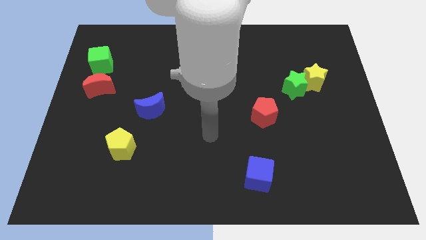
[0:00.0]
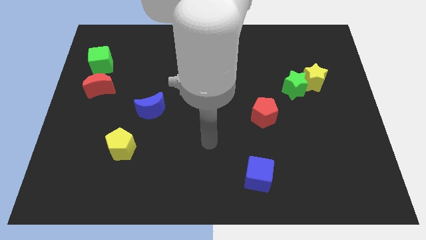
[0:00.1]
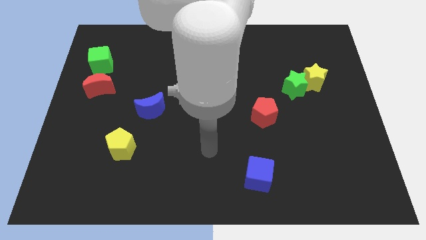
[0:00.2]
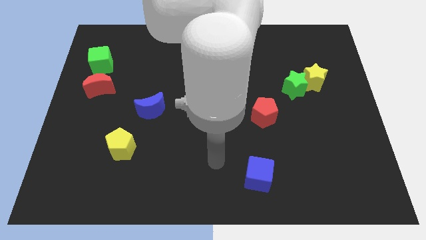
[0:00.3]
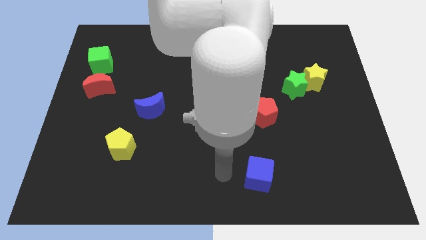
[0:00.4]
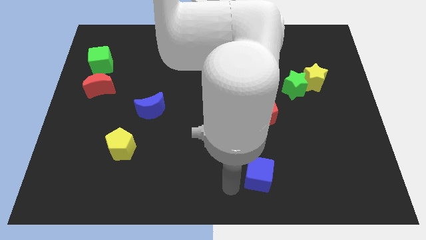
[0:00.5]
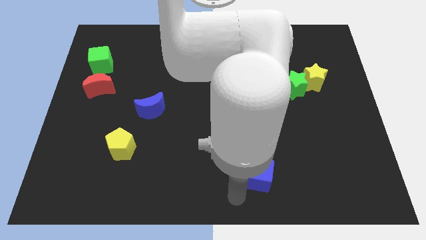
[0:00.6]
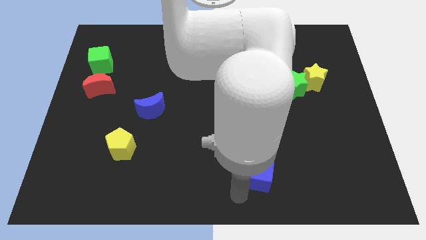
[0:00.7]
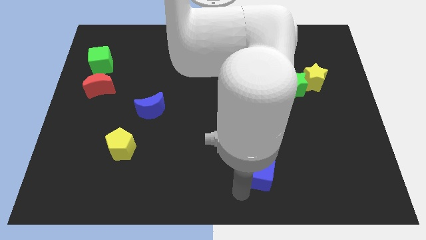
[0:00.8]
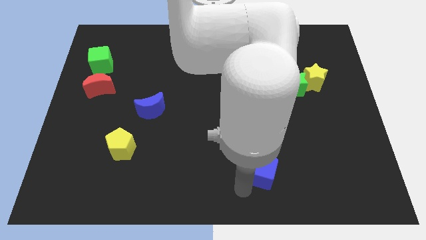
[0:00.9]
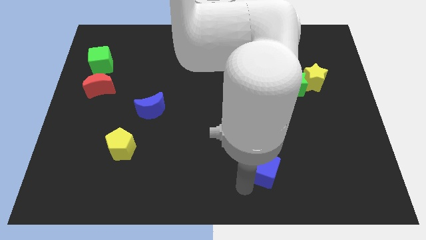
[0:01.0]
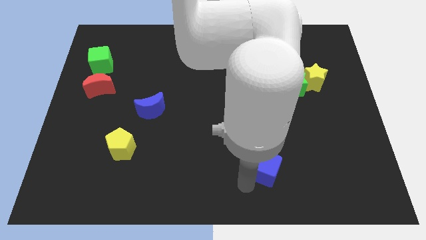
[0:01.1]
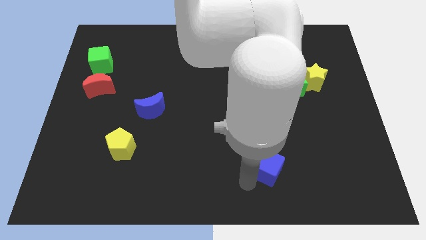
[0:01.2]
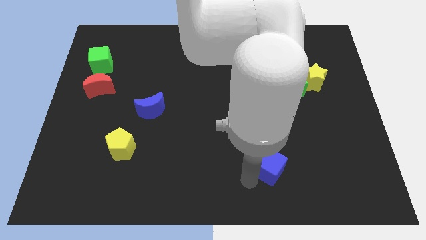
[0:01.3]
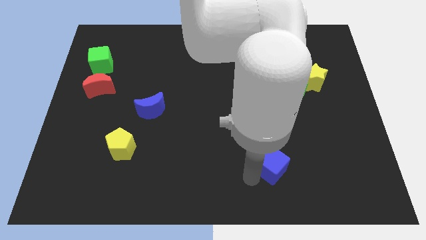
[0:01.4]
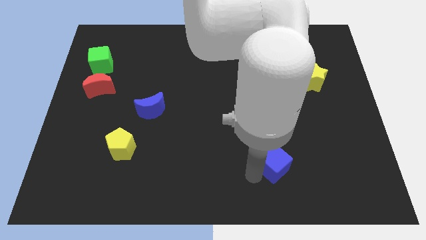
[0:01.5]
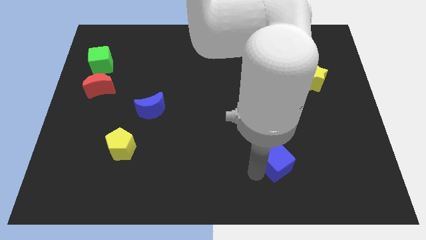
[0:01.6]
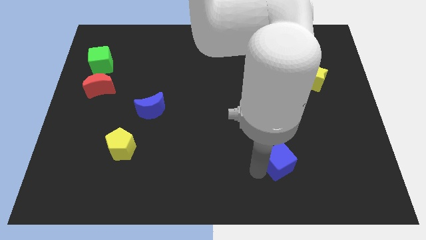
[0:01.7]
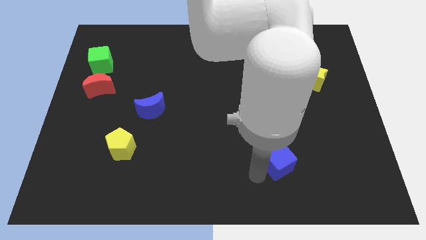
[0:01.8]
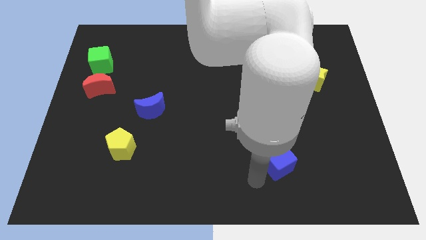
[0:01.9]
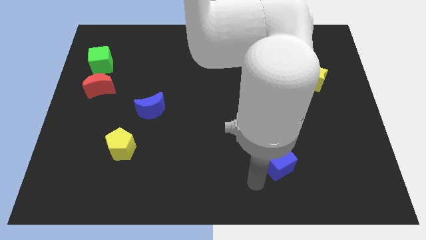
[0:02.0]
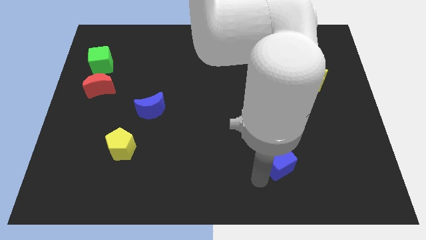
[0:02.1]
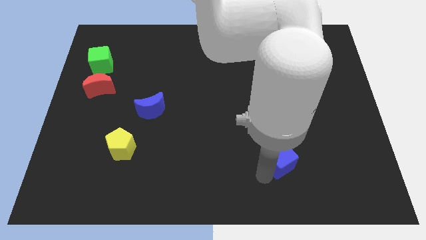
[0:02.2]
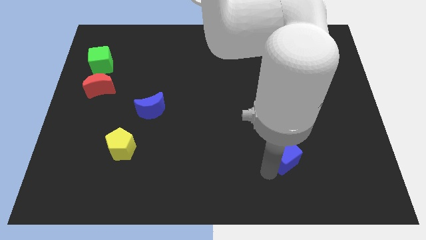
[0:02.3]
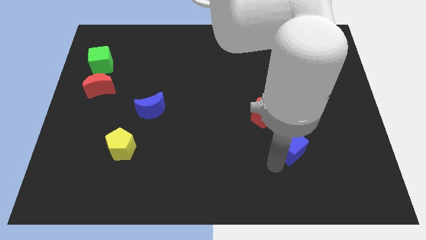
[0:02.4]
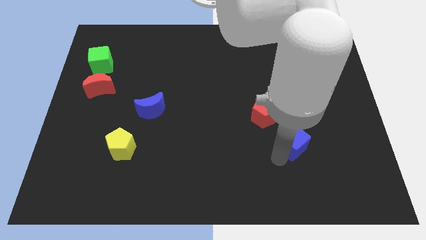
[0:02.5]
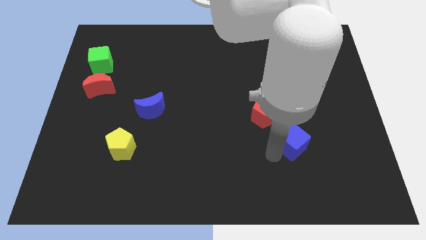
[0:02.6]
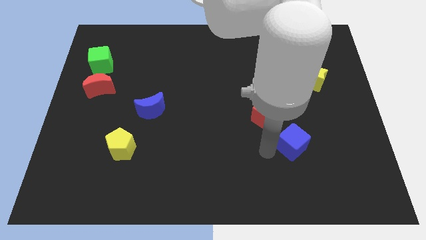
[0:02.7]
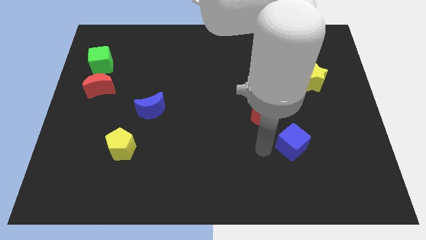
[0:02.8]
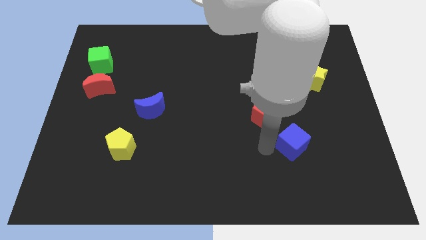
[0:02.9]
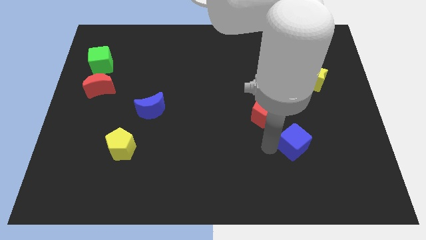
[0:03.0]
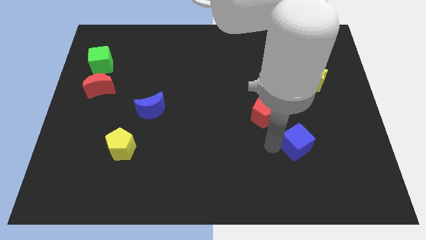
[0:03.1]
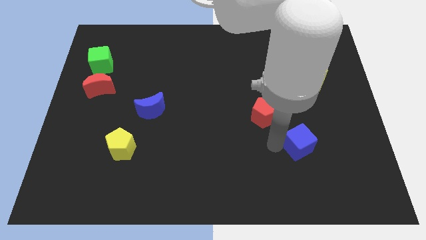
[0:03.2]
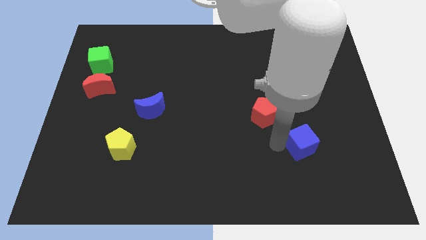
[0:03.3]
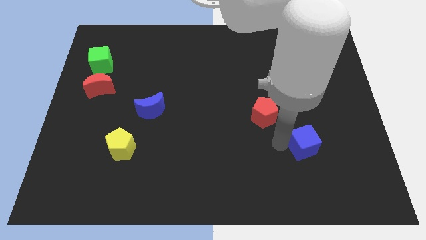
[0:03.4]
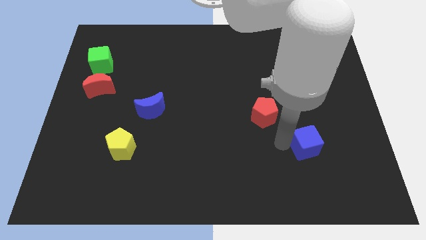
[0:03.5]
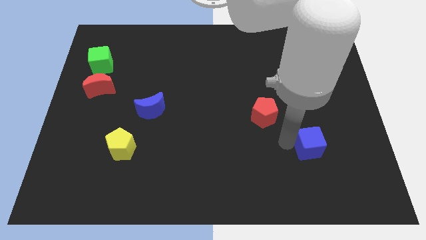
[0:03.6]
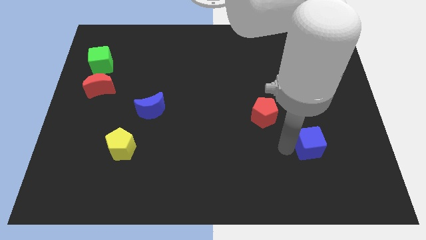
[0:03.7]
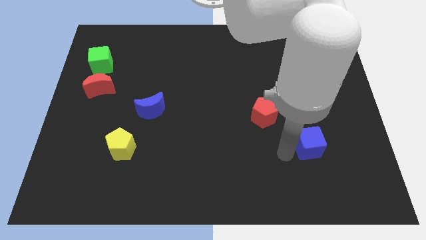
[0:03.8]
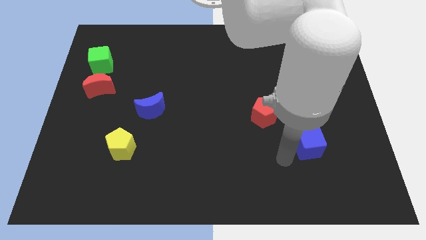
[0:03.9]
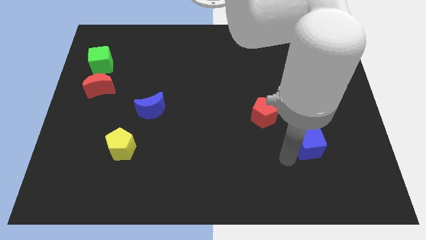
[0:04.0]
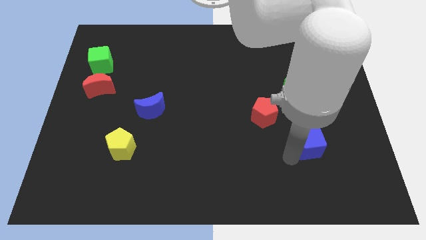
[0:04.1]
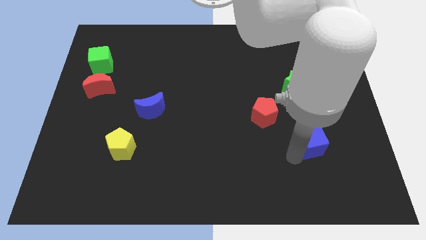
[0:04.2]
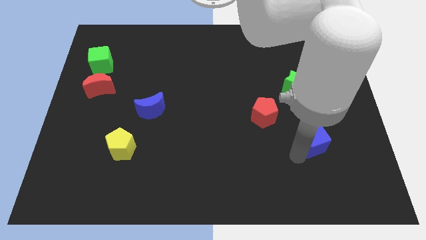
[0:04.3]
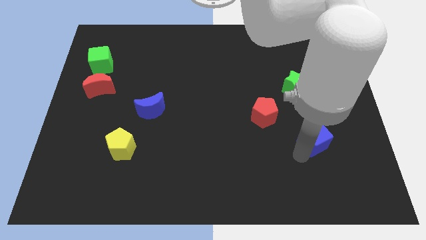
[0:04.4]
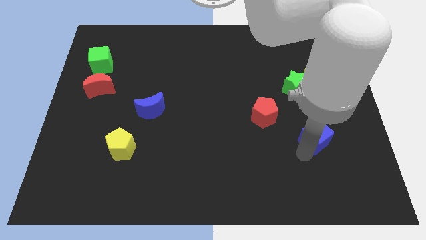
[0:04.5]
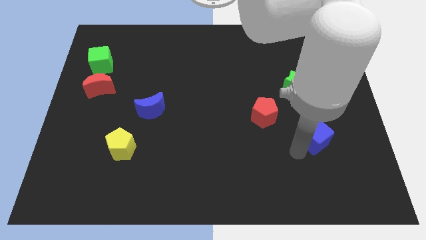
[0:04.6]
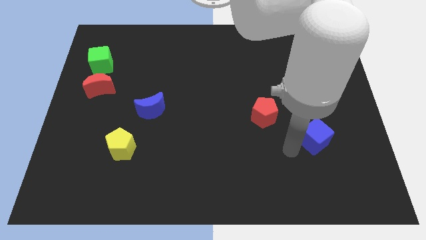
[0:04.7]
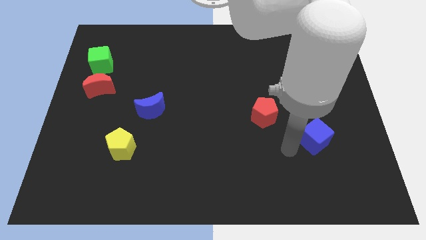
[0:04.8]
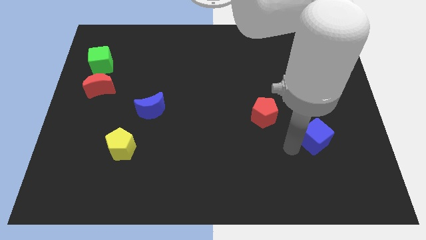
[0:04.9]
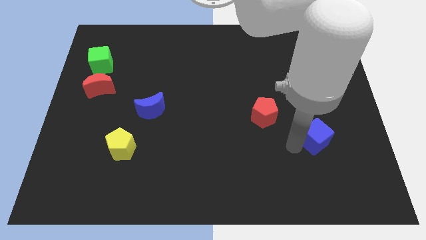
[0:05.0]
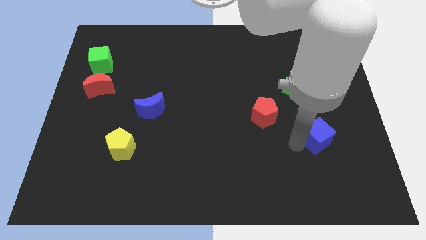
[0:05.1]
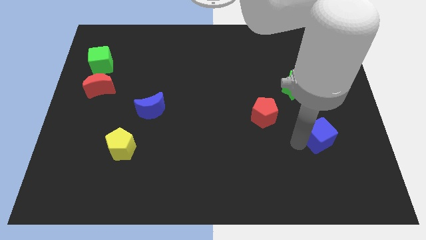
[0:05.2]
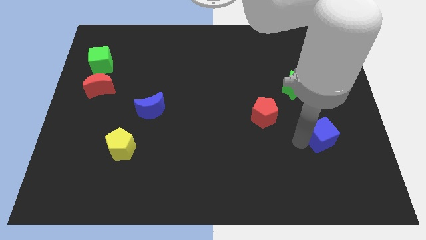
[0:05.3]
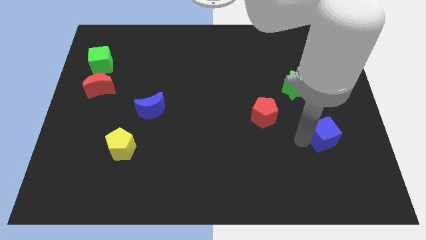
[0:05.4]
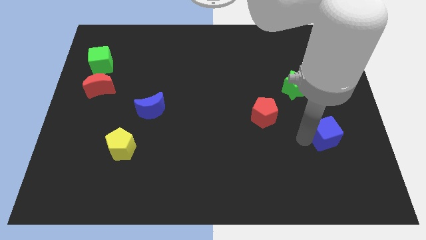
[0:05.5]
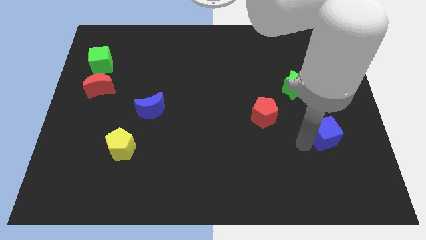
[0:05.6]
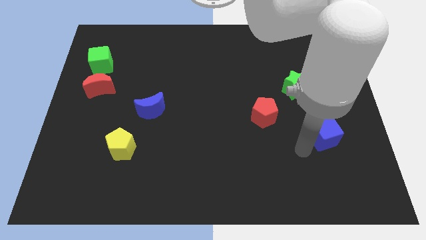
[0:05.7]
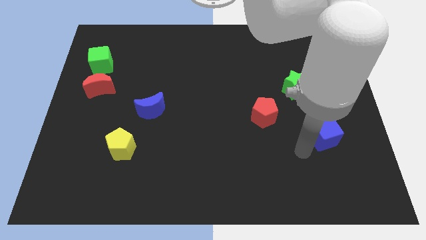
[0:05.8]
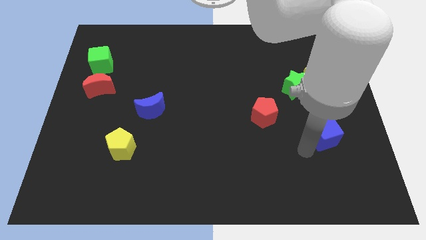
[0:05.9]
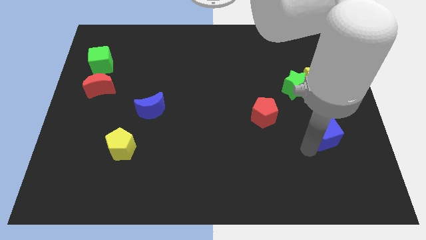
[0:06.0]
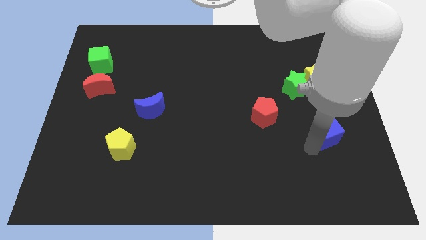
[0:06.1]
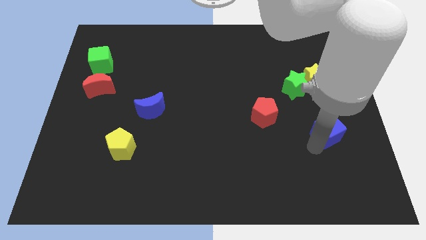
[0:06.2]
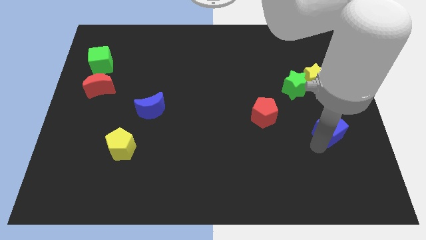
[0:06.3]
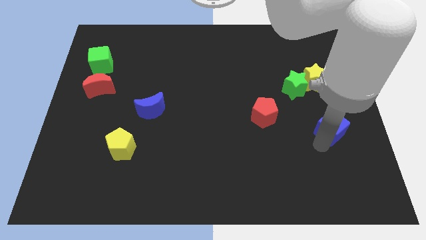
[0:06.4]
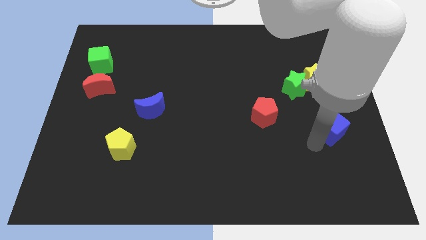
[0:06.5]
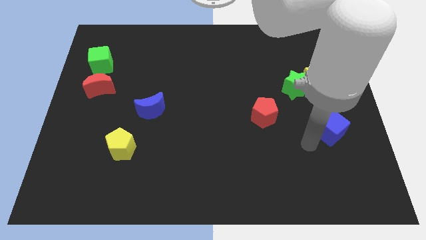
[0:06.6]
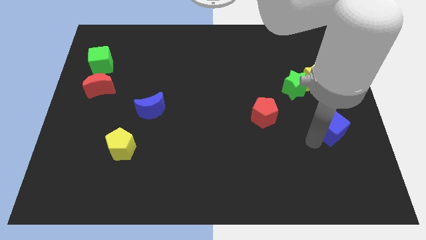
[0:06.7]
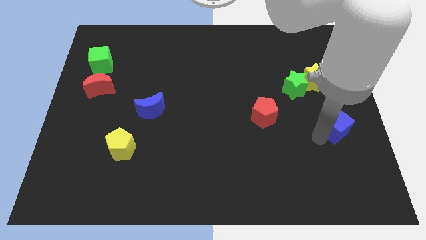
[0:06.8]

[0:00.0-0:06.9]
move the blue cube to the right side

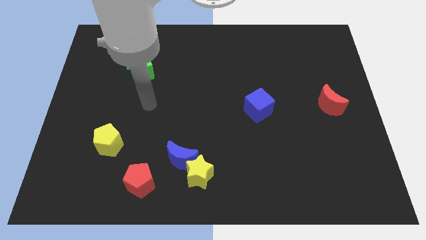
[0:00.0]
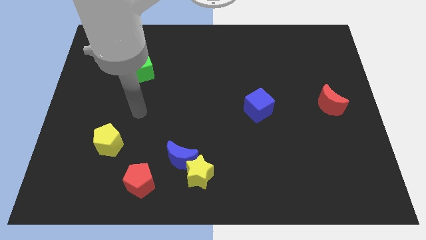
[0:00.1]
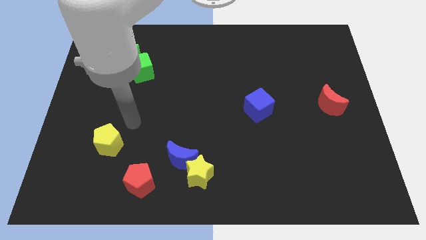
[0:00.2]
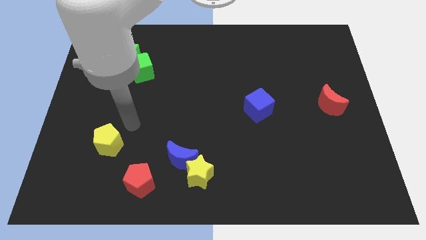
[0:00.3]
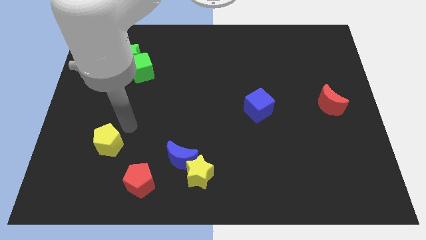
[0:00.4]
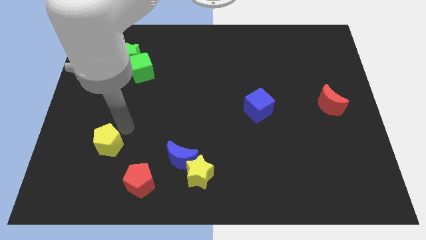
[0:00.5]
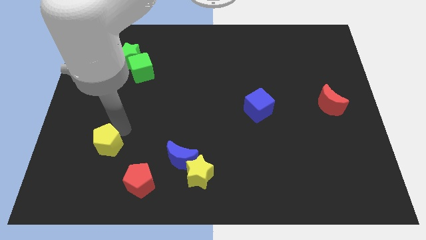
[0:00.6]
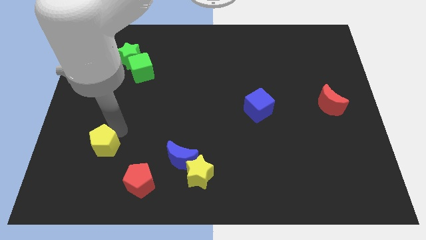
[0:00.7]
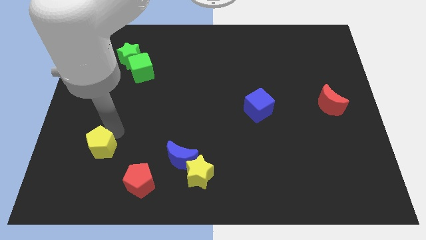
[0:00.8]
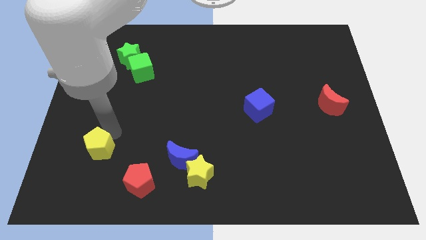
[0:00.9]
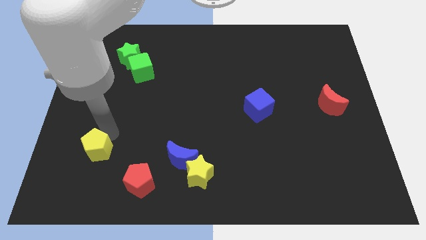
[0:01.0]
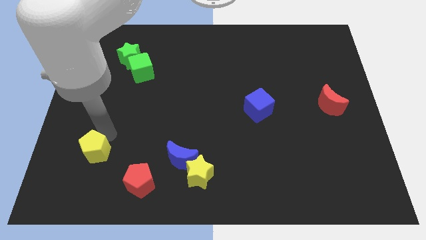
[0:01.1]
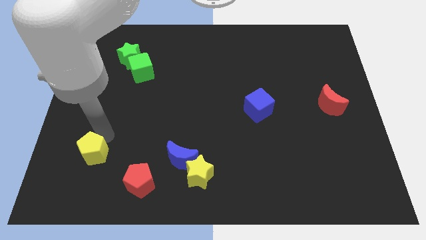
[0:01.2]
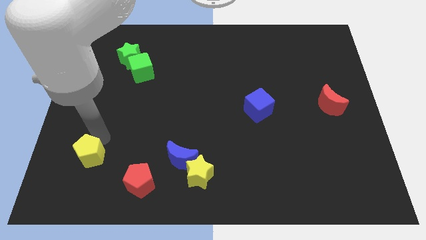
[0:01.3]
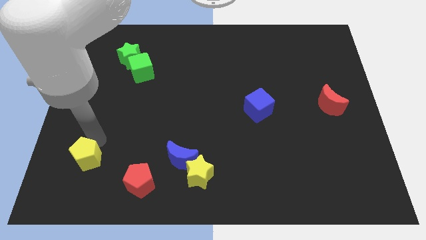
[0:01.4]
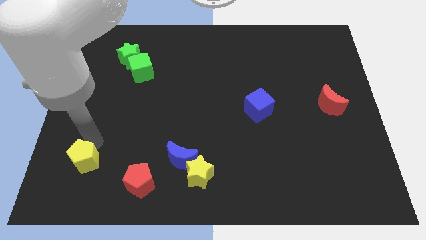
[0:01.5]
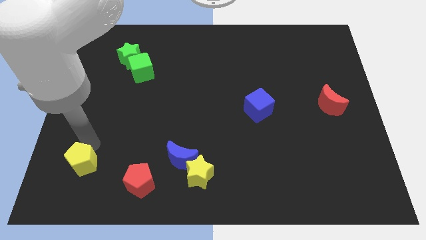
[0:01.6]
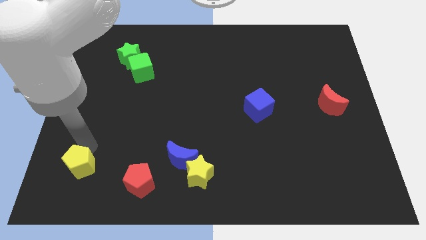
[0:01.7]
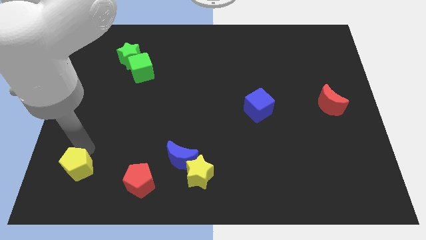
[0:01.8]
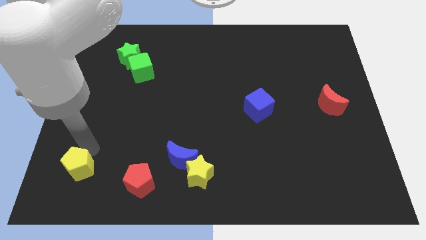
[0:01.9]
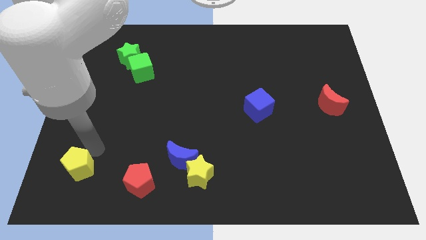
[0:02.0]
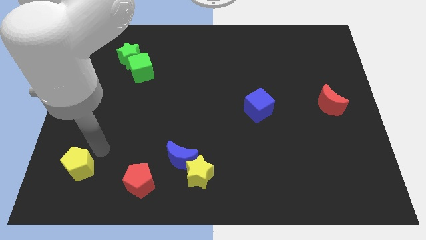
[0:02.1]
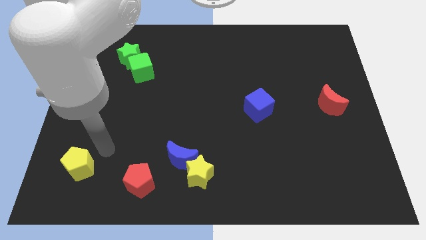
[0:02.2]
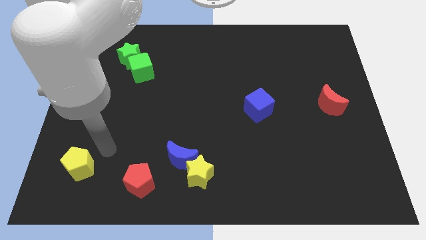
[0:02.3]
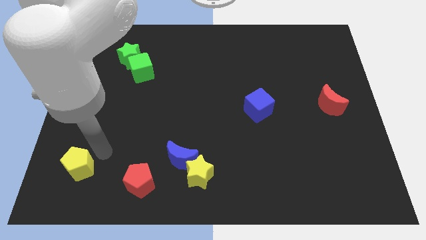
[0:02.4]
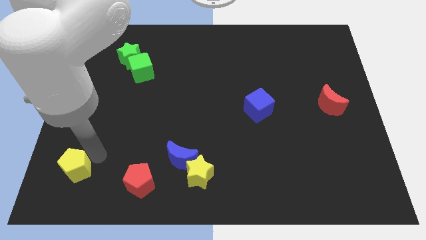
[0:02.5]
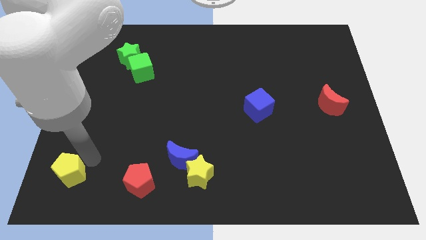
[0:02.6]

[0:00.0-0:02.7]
put the yellow pentagon to the lower left corner
